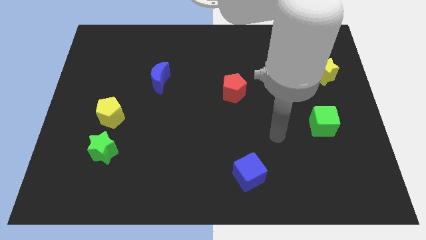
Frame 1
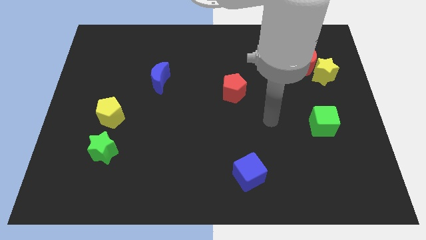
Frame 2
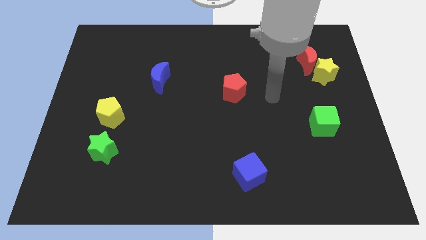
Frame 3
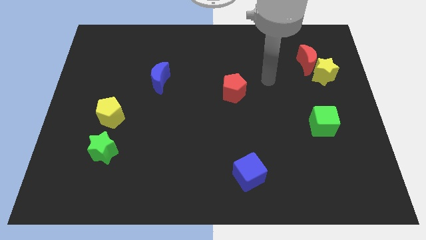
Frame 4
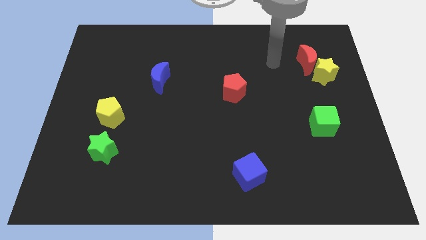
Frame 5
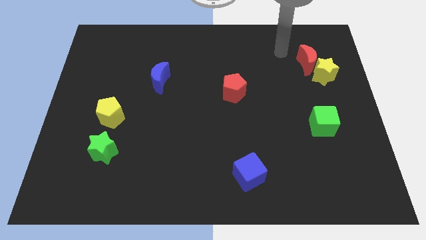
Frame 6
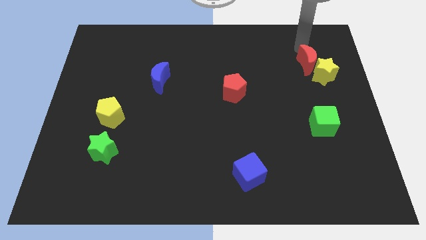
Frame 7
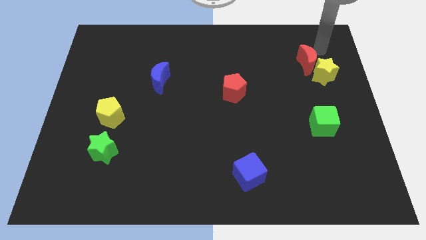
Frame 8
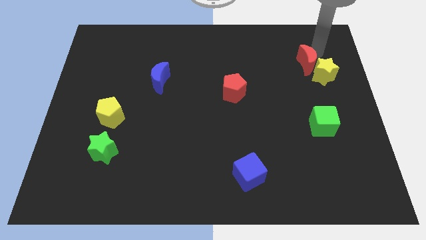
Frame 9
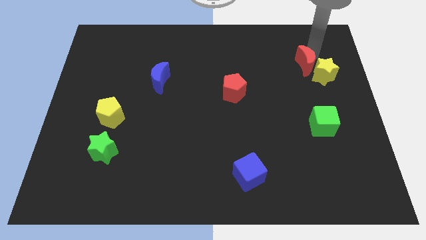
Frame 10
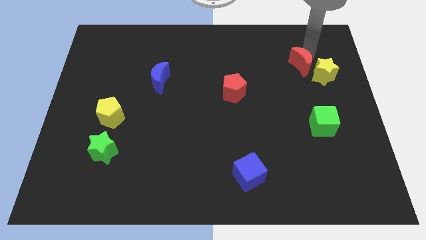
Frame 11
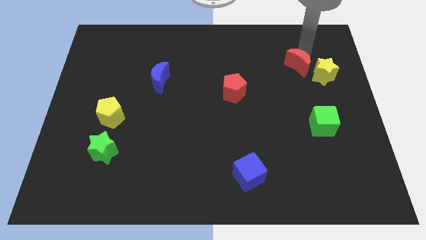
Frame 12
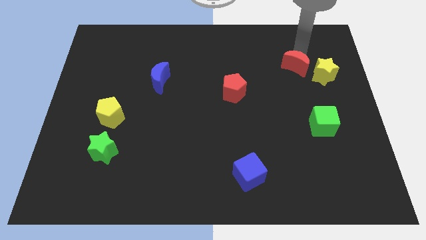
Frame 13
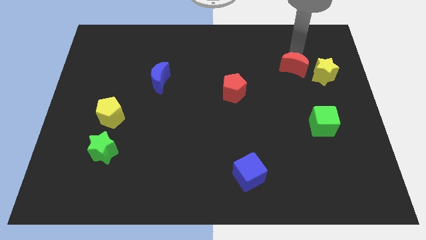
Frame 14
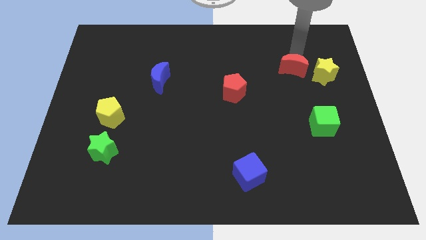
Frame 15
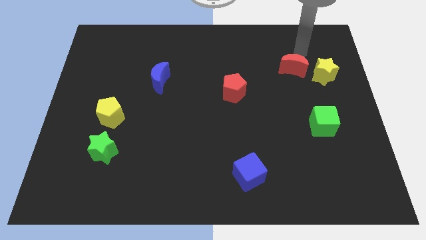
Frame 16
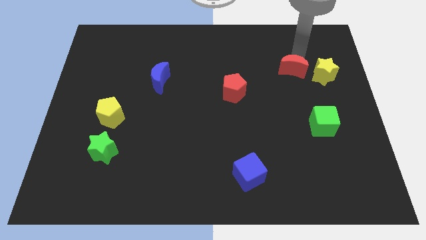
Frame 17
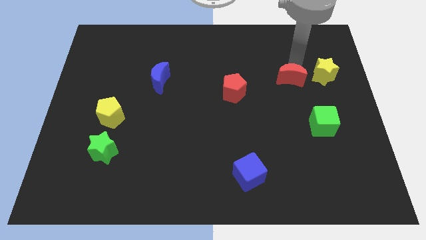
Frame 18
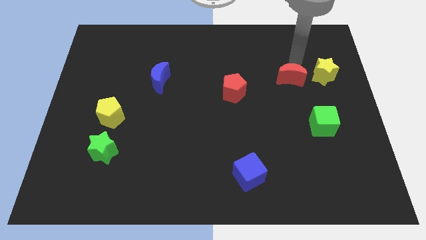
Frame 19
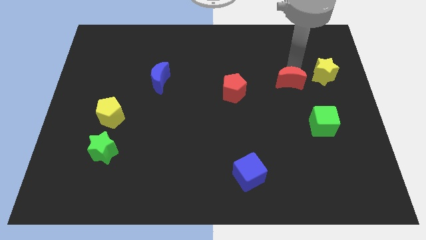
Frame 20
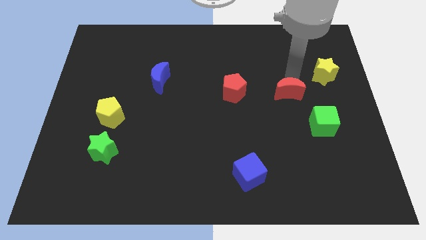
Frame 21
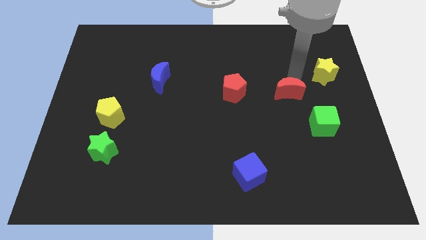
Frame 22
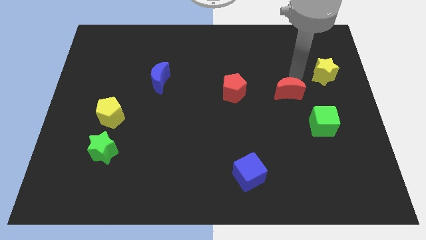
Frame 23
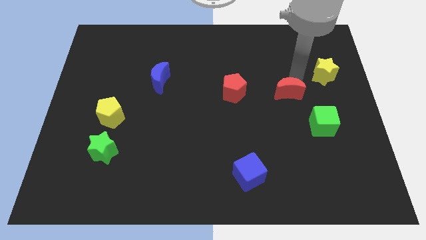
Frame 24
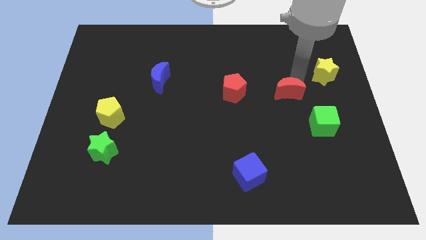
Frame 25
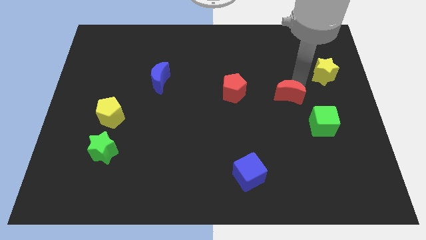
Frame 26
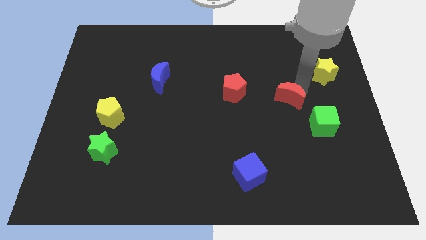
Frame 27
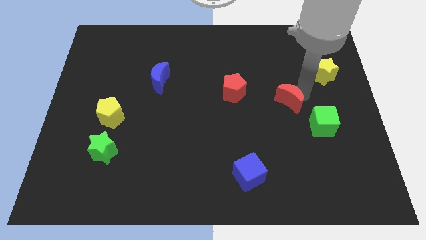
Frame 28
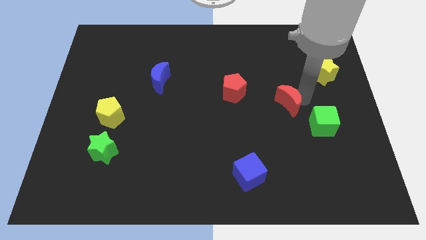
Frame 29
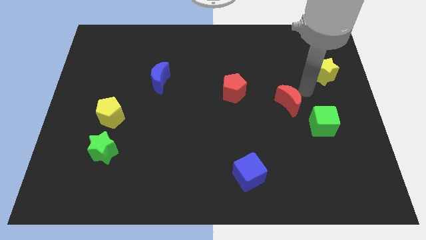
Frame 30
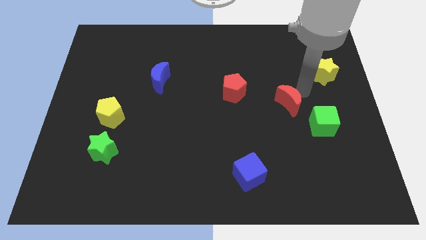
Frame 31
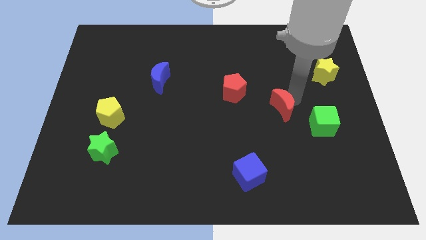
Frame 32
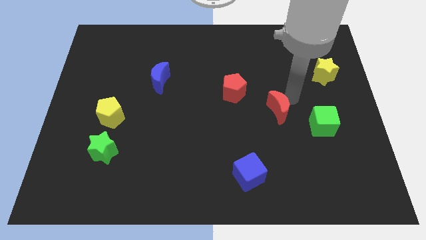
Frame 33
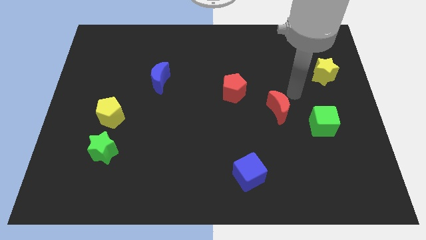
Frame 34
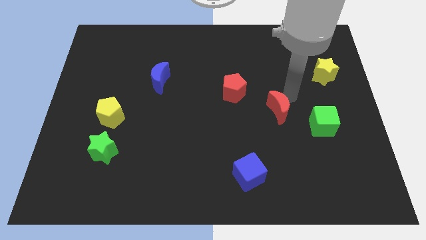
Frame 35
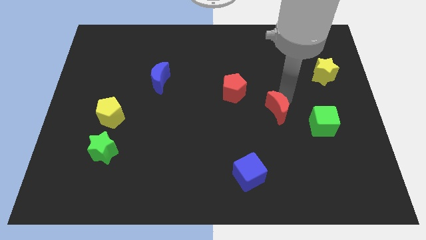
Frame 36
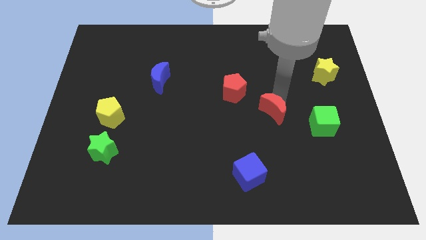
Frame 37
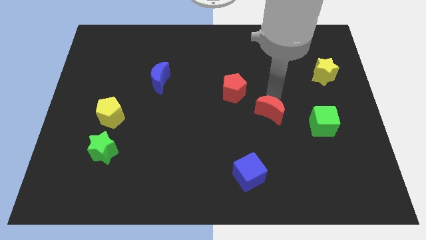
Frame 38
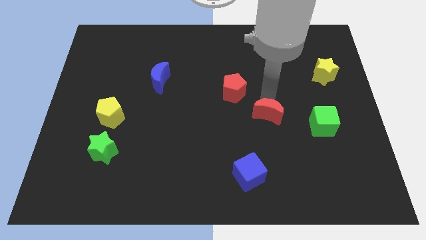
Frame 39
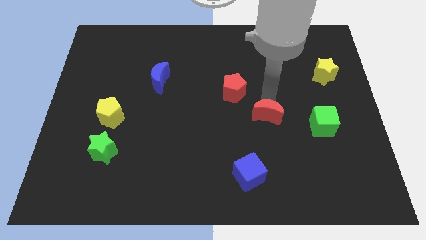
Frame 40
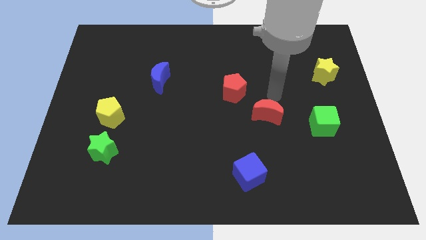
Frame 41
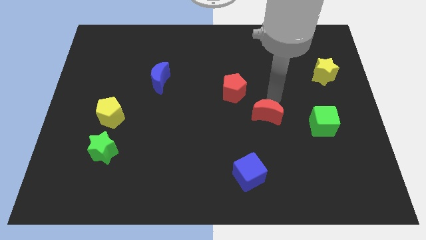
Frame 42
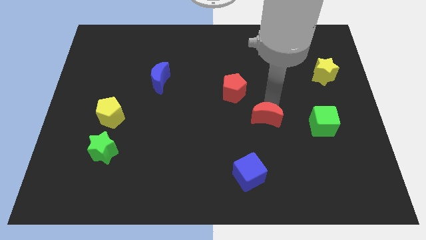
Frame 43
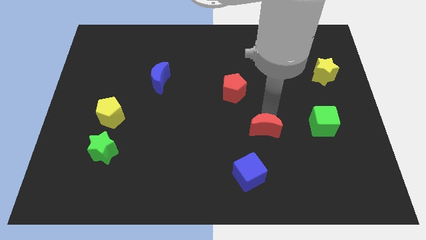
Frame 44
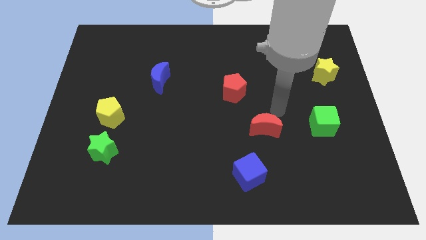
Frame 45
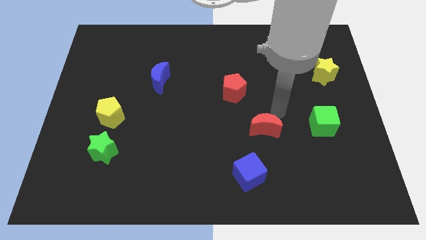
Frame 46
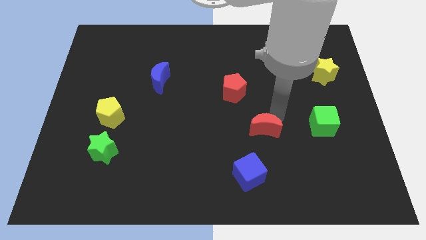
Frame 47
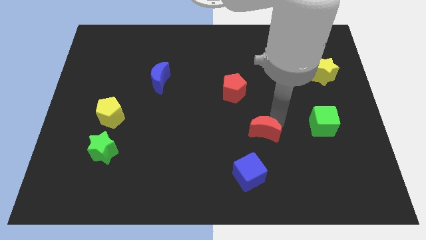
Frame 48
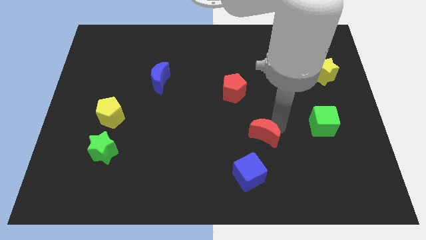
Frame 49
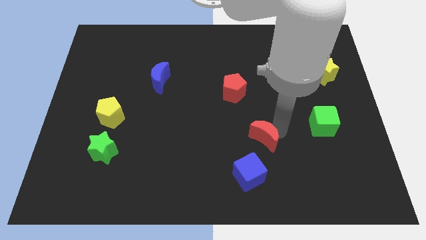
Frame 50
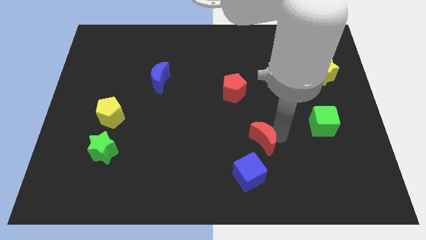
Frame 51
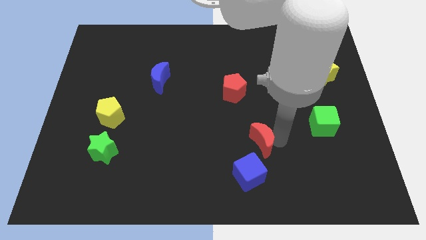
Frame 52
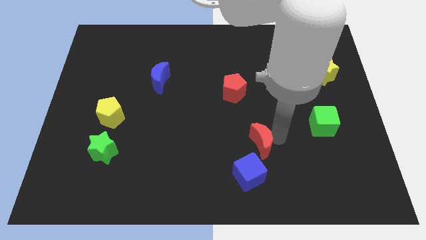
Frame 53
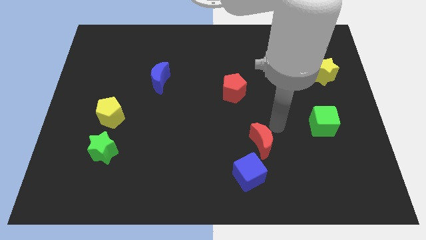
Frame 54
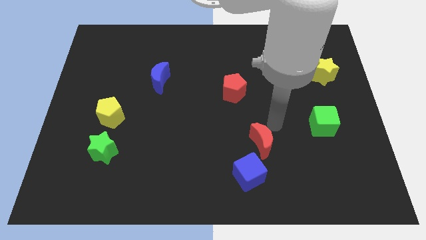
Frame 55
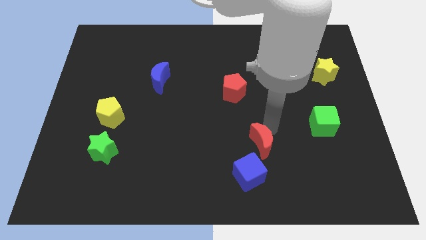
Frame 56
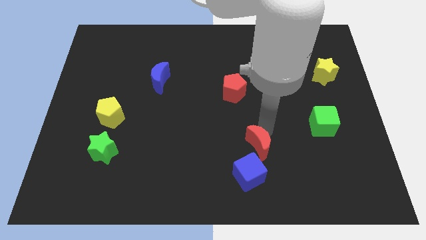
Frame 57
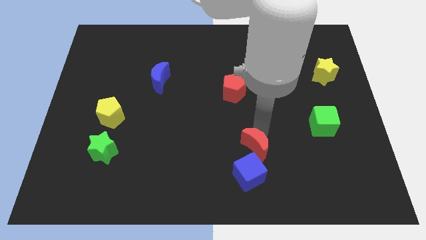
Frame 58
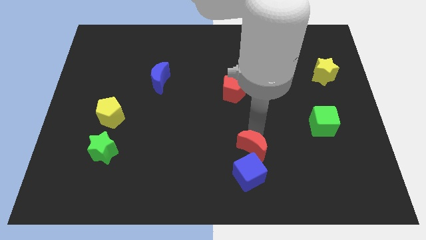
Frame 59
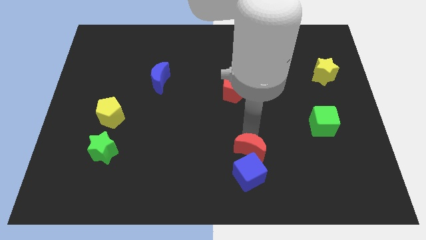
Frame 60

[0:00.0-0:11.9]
put the red moon towards the blue cube

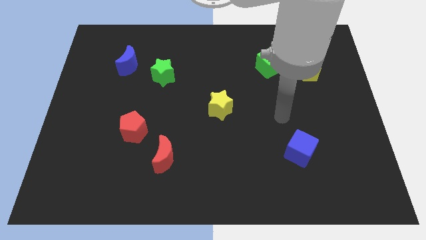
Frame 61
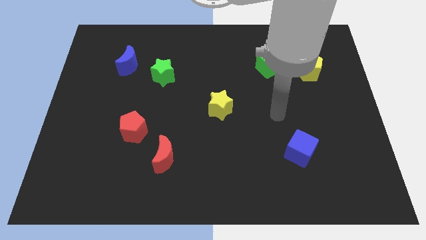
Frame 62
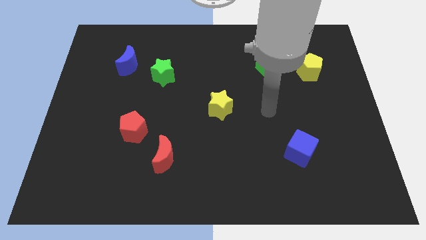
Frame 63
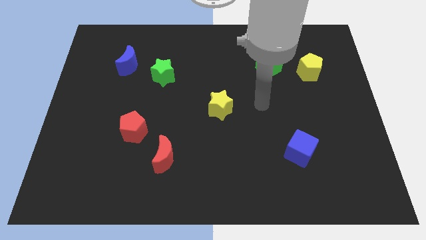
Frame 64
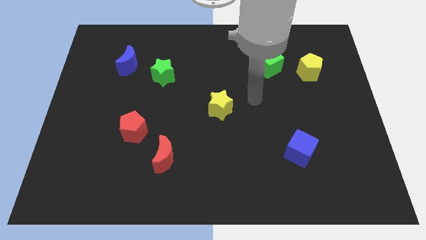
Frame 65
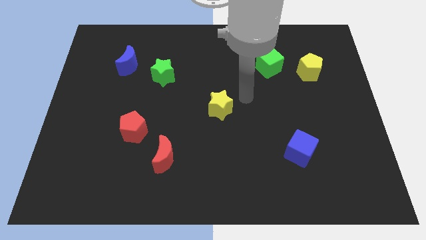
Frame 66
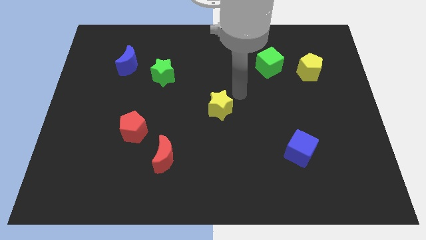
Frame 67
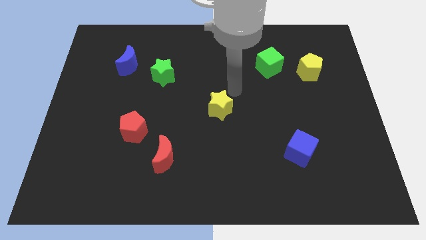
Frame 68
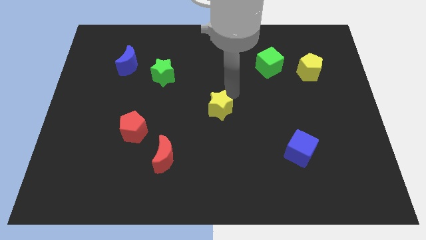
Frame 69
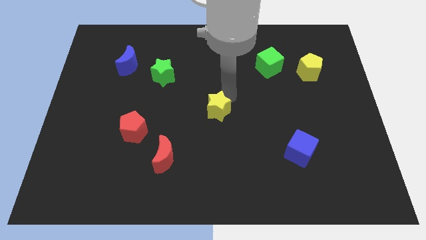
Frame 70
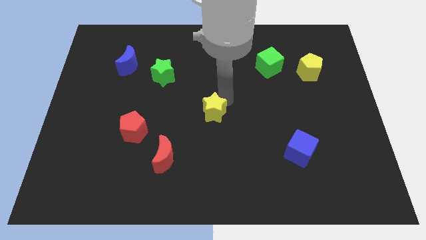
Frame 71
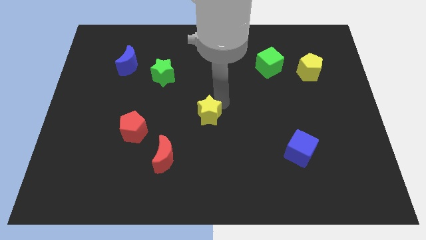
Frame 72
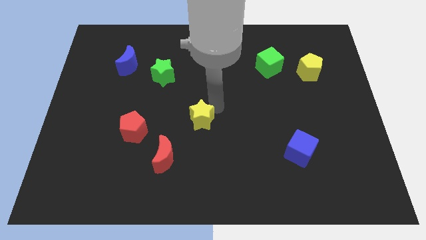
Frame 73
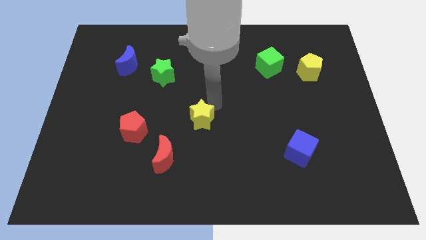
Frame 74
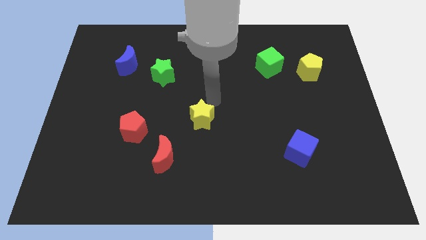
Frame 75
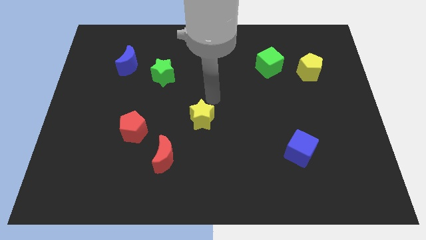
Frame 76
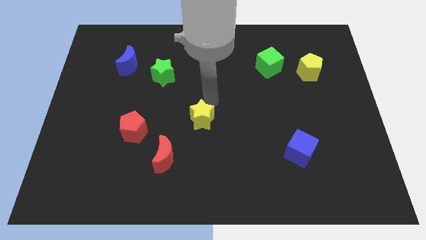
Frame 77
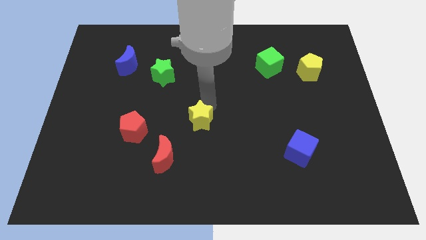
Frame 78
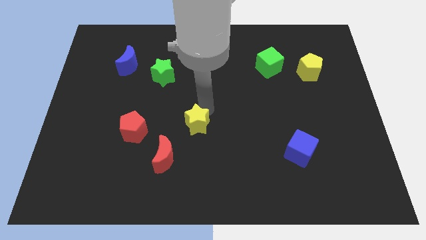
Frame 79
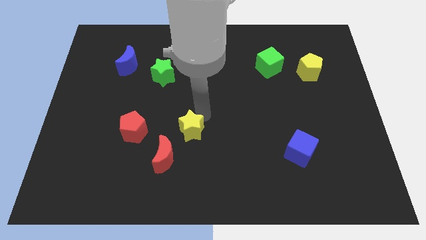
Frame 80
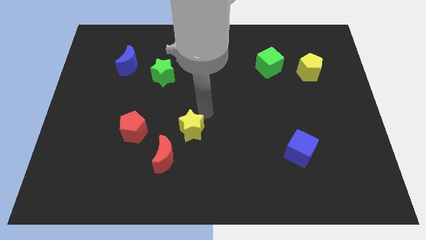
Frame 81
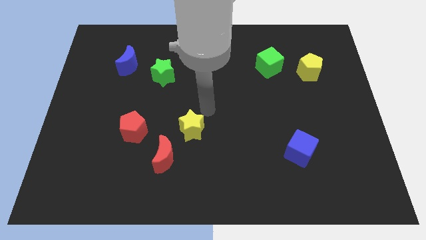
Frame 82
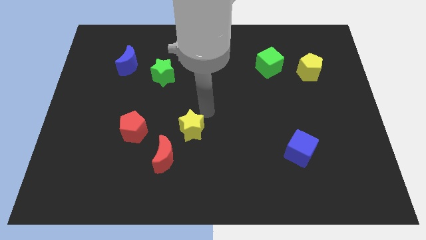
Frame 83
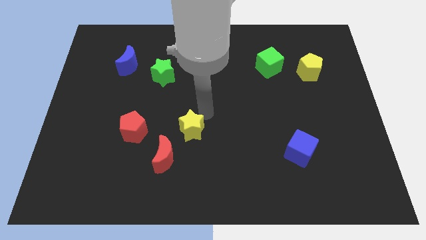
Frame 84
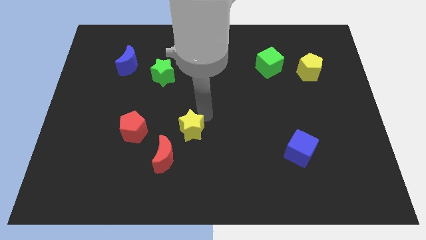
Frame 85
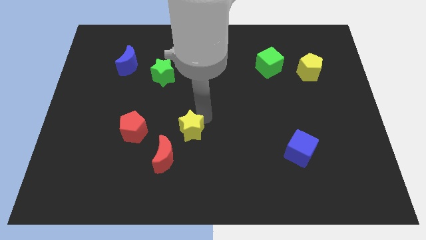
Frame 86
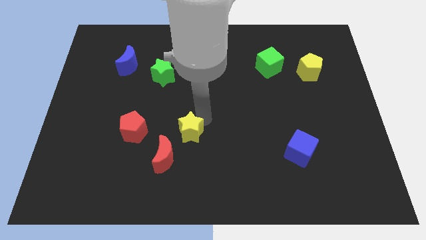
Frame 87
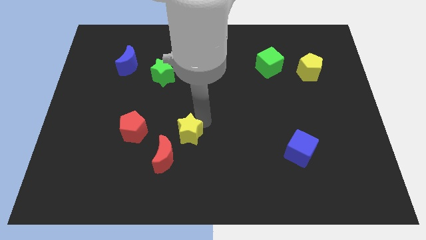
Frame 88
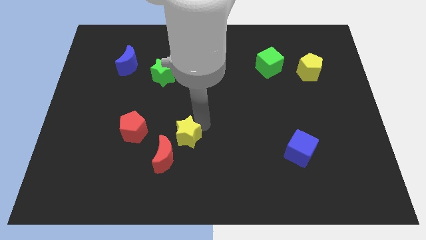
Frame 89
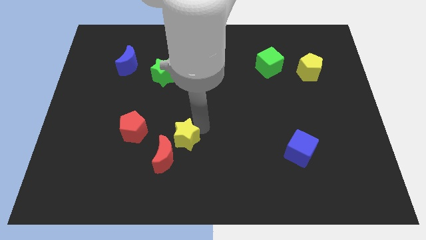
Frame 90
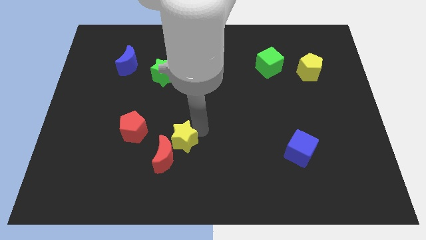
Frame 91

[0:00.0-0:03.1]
put the yellow star to the red moon
